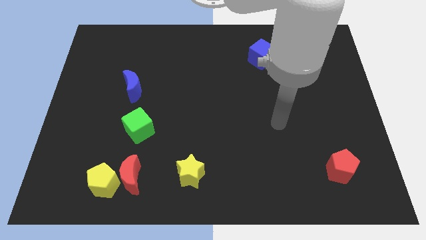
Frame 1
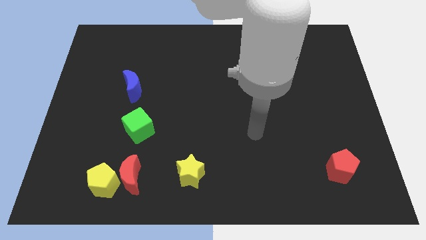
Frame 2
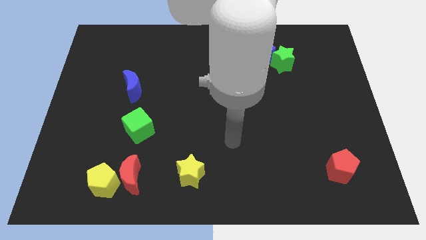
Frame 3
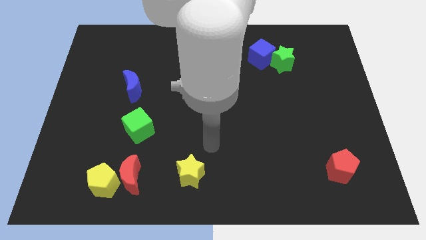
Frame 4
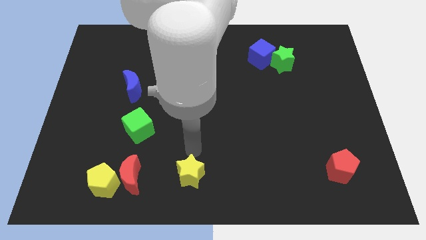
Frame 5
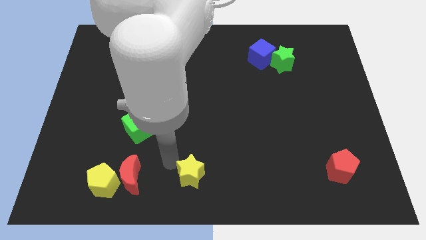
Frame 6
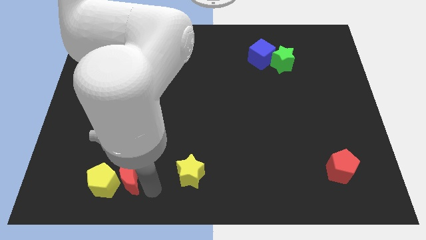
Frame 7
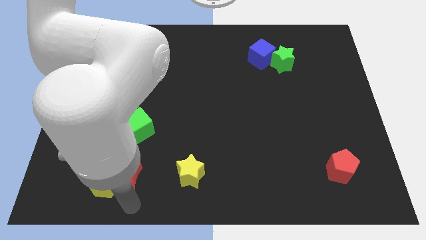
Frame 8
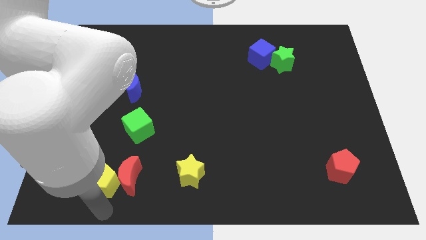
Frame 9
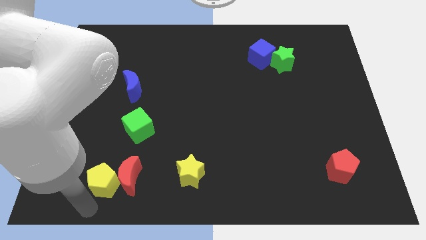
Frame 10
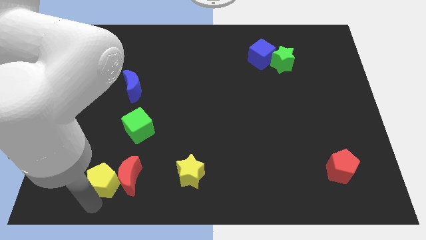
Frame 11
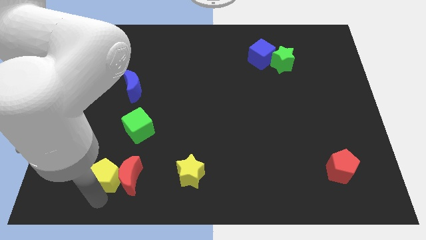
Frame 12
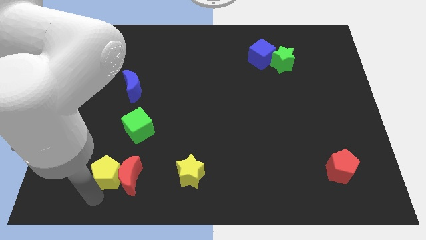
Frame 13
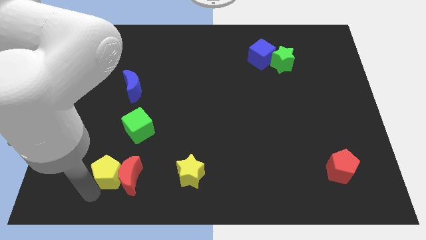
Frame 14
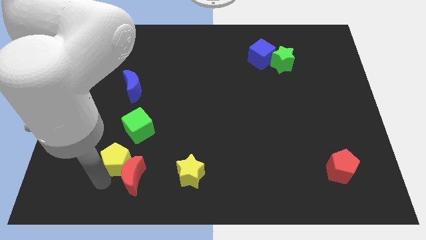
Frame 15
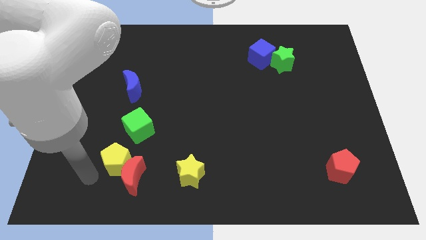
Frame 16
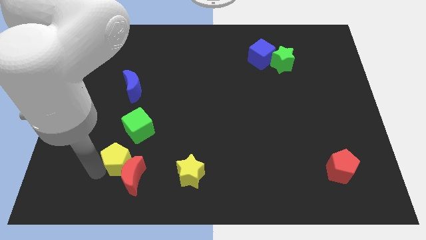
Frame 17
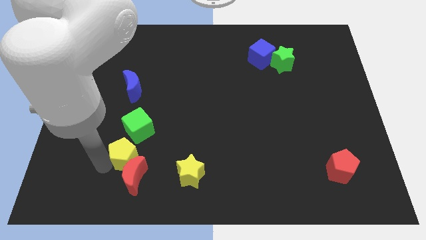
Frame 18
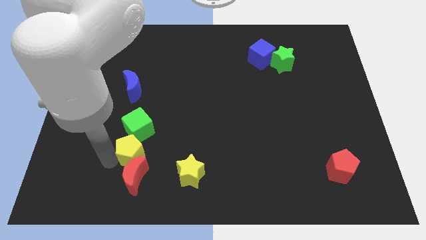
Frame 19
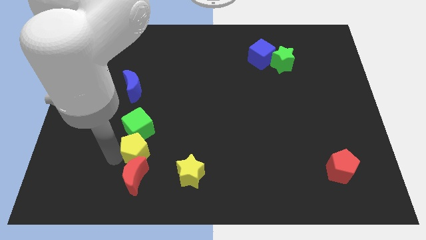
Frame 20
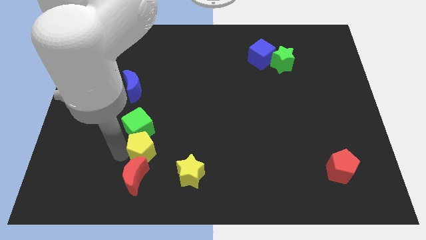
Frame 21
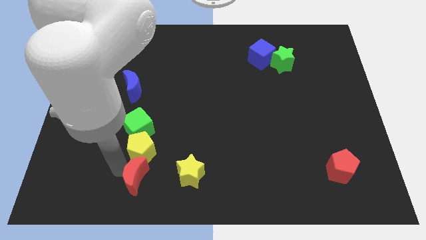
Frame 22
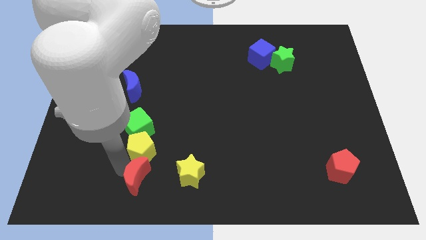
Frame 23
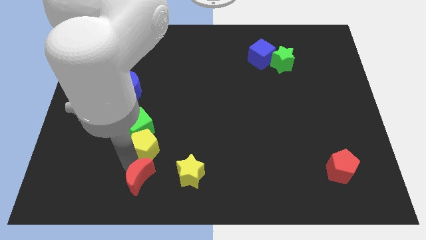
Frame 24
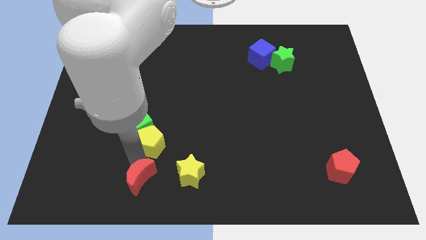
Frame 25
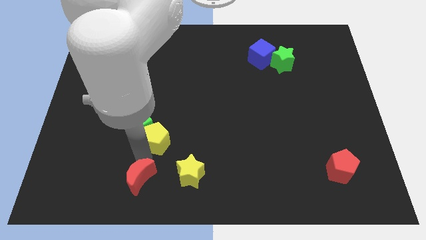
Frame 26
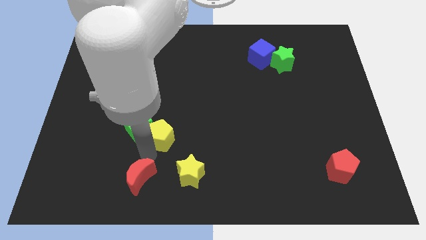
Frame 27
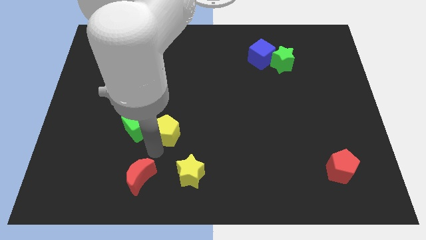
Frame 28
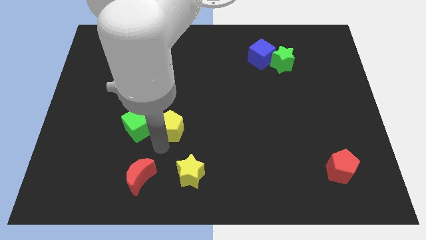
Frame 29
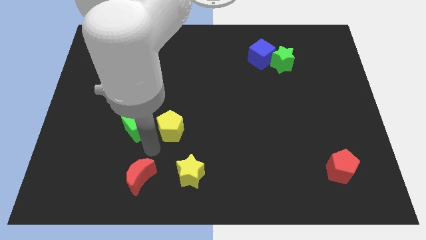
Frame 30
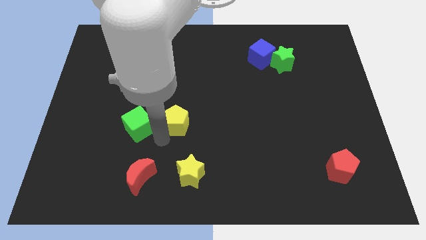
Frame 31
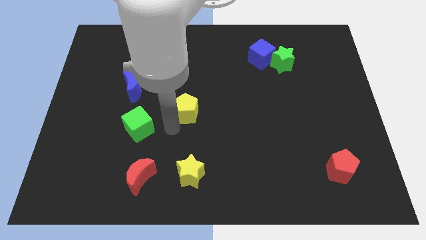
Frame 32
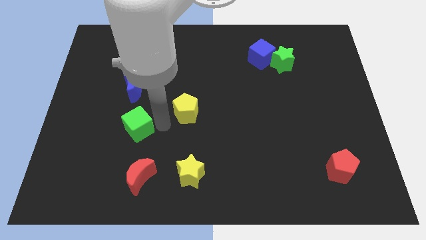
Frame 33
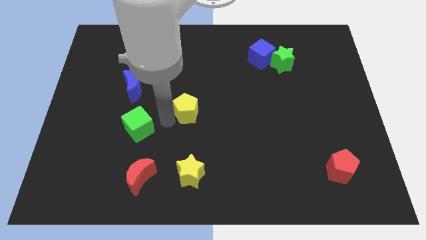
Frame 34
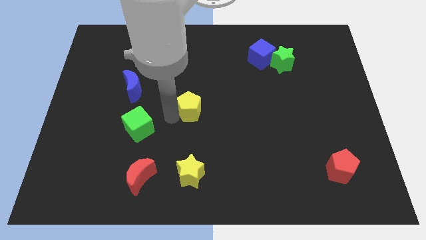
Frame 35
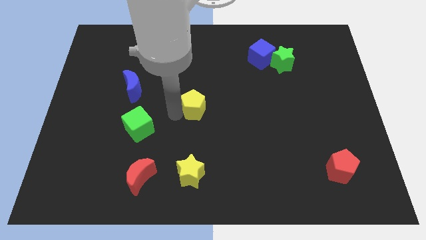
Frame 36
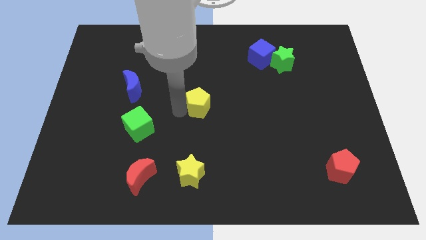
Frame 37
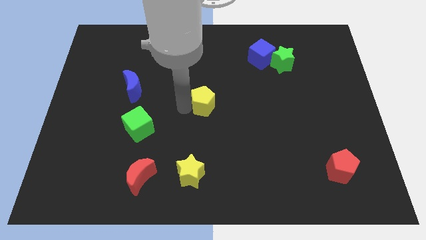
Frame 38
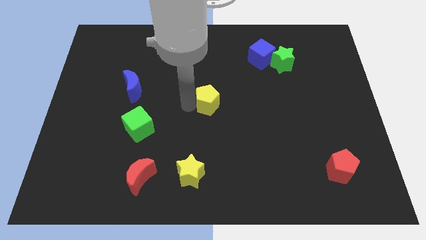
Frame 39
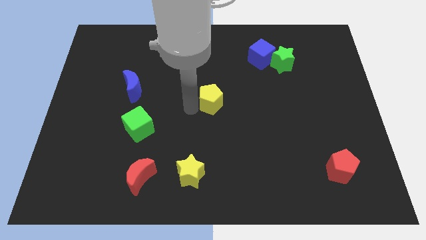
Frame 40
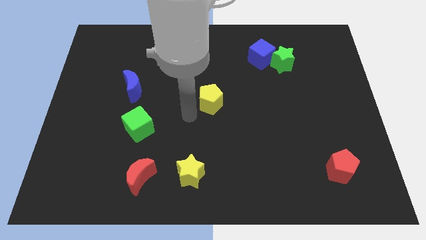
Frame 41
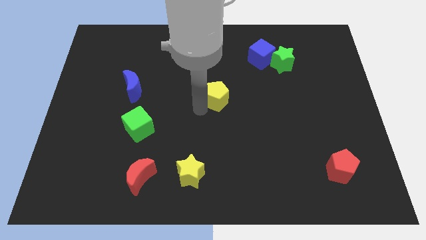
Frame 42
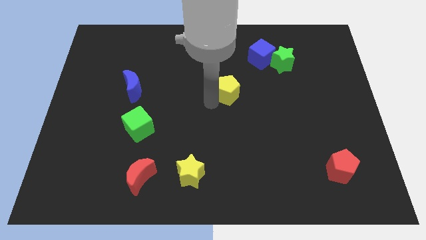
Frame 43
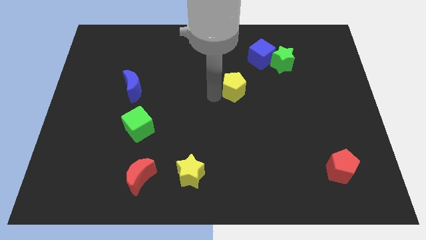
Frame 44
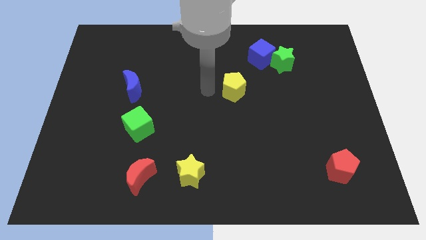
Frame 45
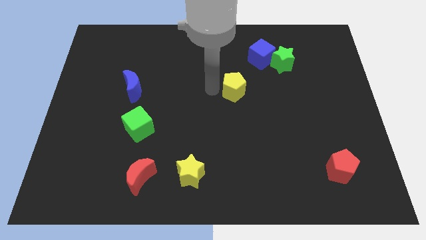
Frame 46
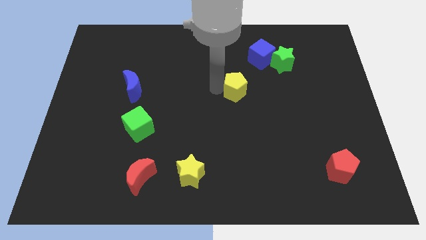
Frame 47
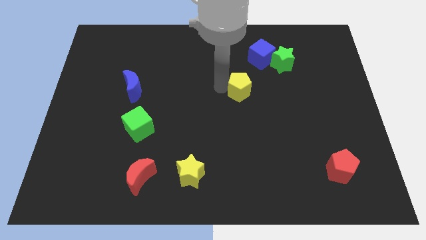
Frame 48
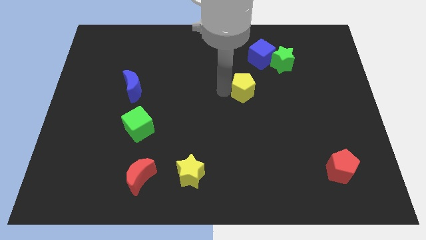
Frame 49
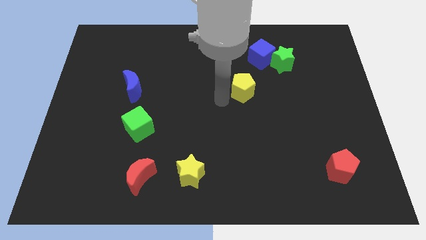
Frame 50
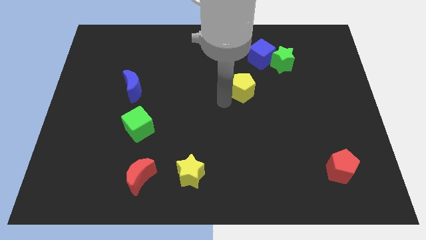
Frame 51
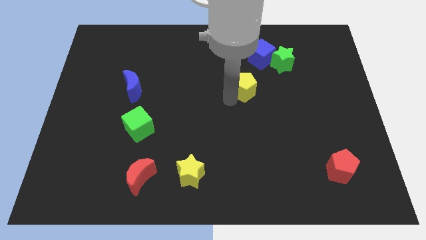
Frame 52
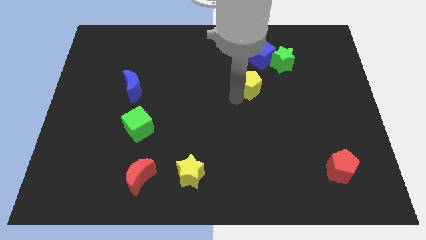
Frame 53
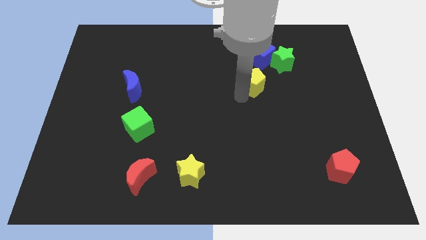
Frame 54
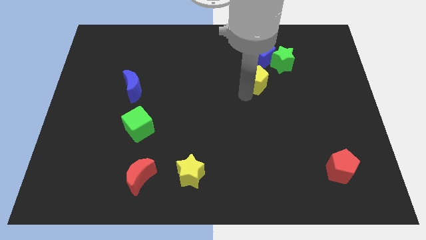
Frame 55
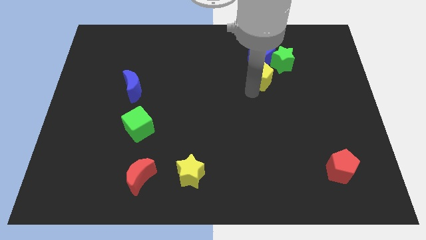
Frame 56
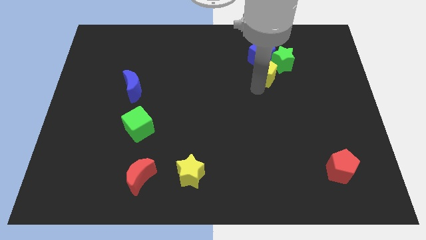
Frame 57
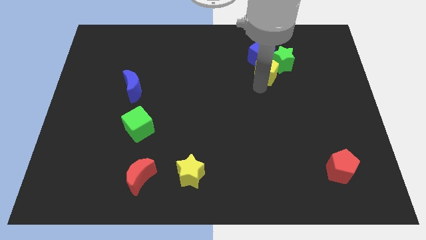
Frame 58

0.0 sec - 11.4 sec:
put the yellow pentagon close to the green star

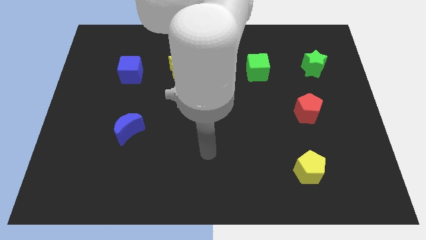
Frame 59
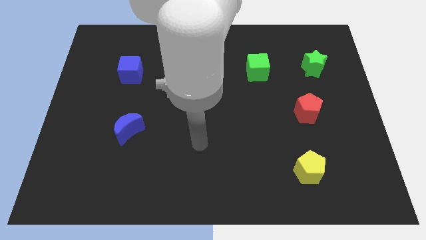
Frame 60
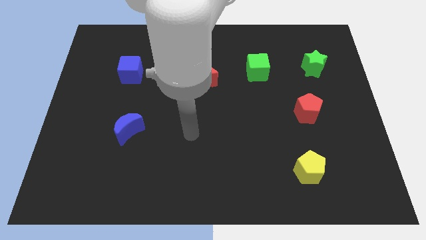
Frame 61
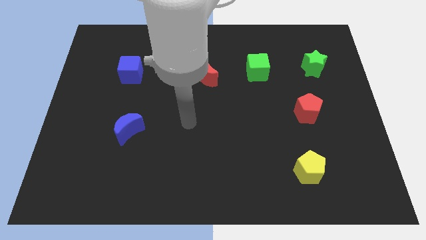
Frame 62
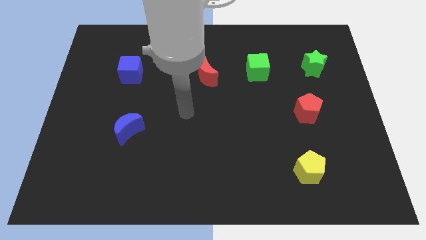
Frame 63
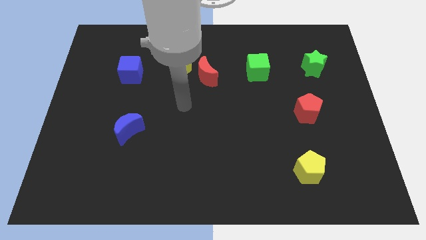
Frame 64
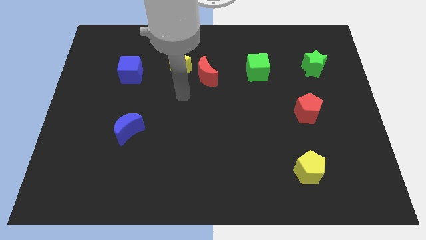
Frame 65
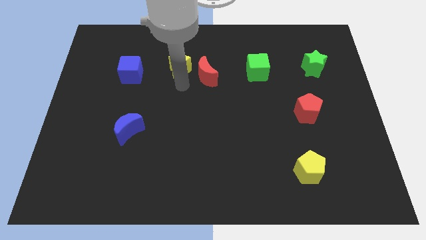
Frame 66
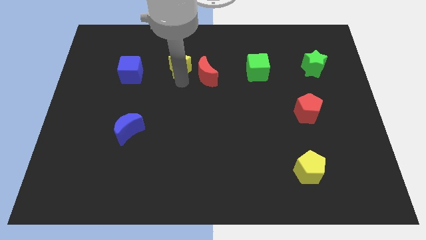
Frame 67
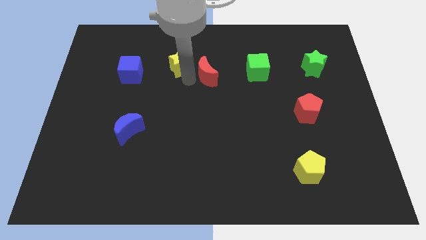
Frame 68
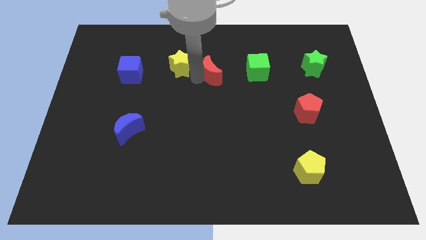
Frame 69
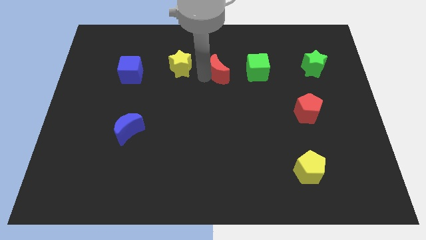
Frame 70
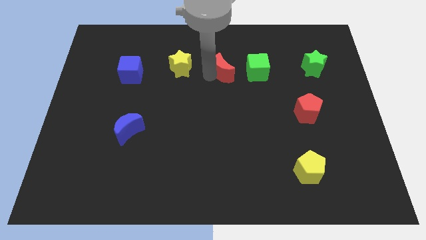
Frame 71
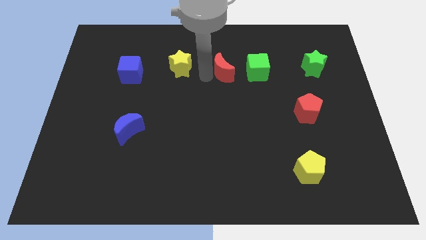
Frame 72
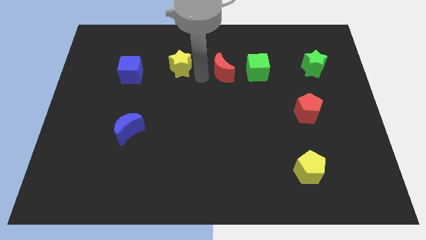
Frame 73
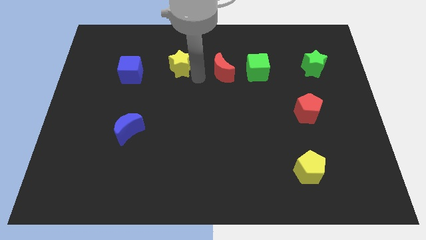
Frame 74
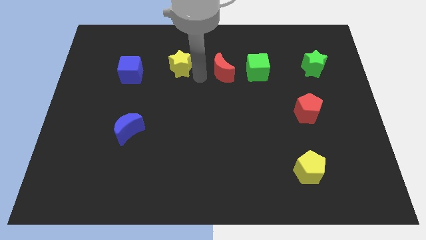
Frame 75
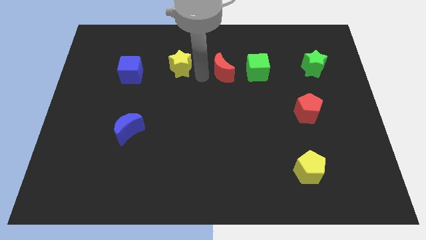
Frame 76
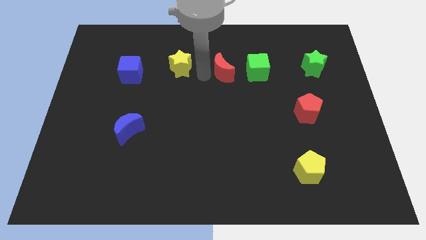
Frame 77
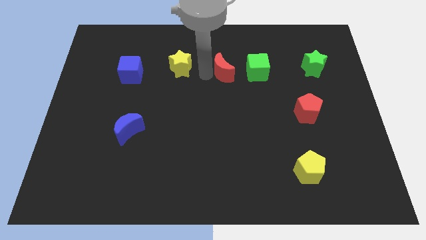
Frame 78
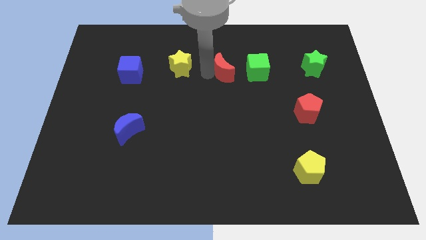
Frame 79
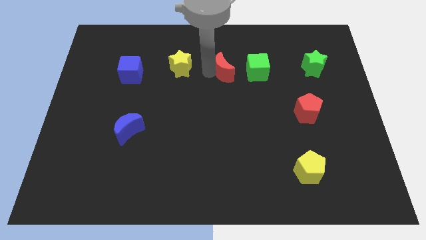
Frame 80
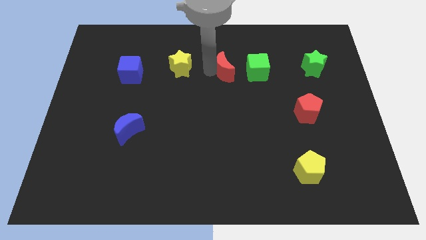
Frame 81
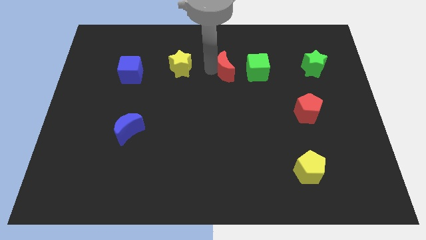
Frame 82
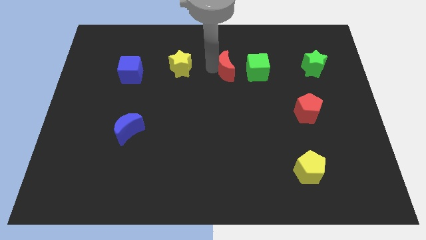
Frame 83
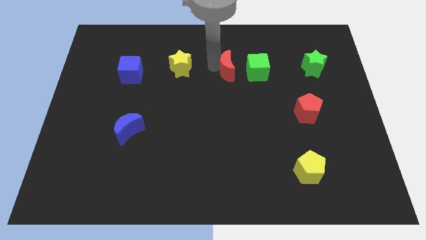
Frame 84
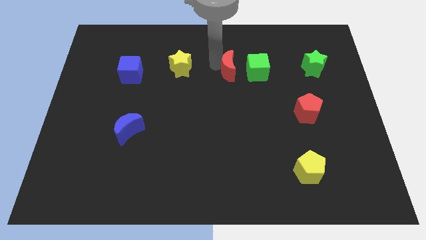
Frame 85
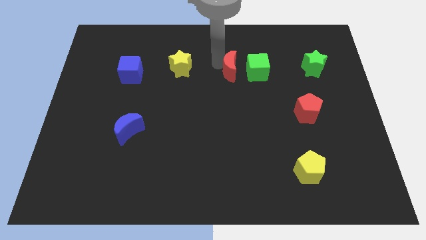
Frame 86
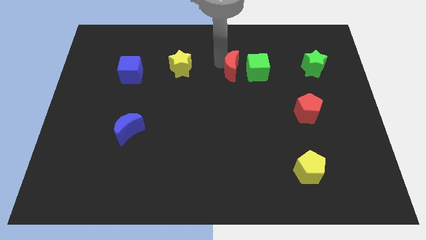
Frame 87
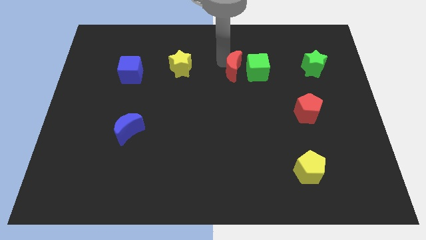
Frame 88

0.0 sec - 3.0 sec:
move the red moon towards the green cube
